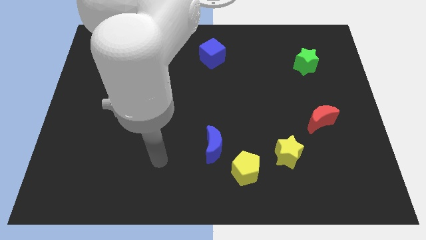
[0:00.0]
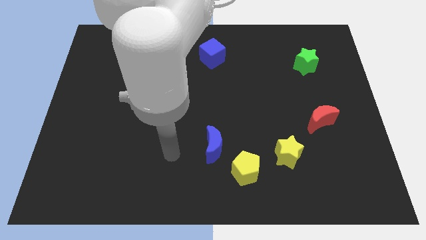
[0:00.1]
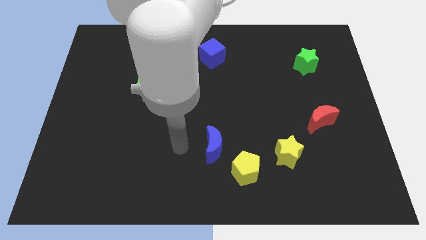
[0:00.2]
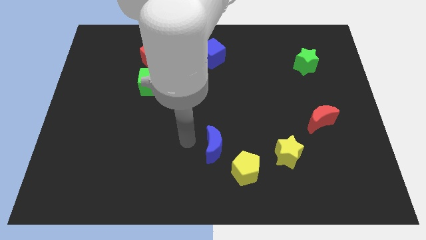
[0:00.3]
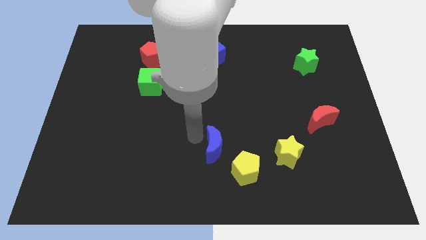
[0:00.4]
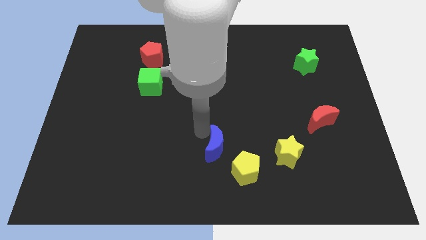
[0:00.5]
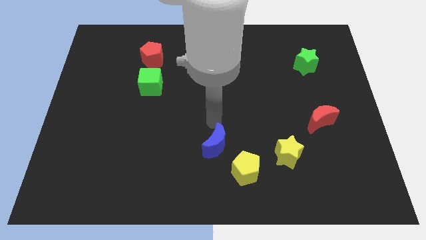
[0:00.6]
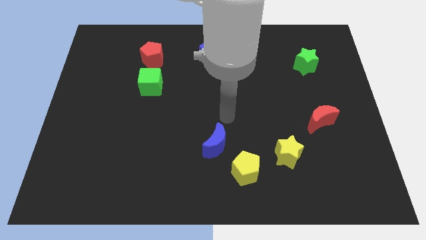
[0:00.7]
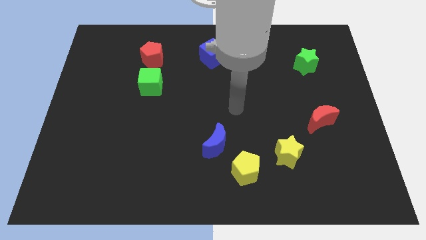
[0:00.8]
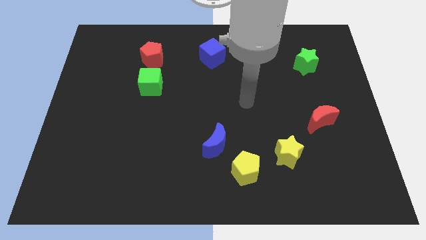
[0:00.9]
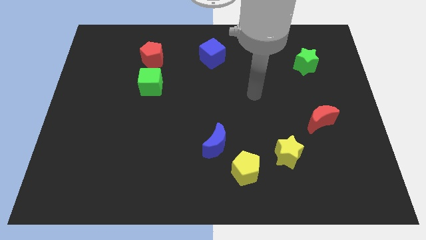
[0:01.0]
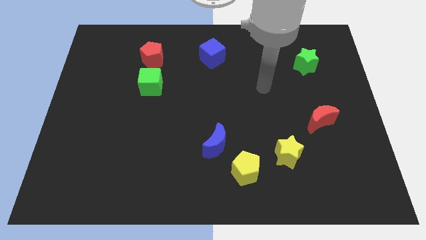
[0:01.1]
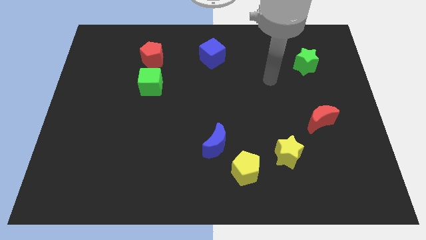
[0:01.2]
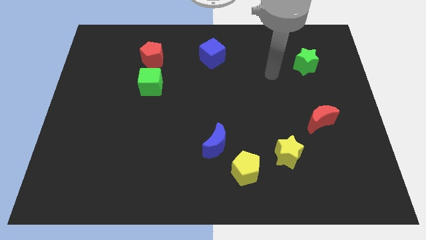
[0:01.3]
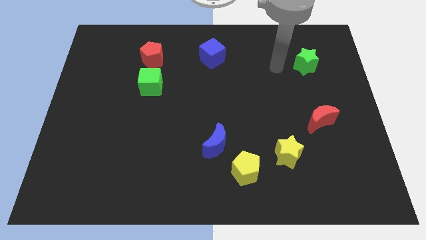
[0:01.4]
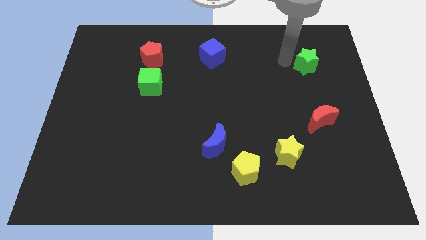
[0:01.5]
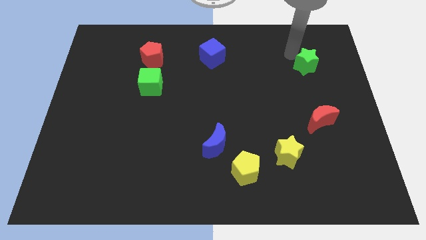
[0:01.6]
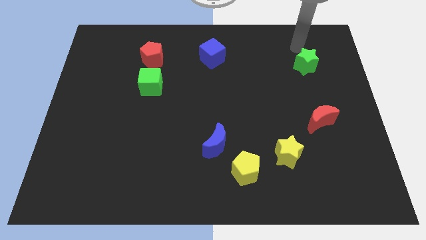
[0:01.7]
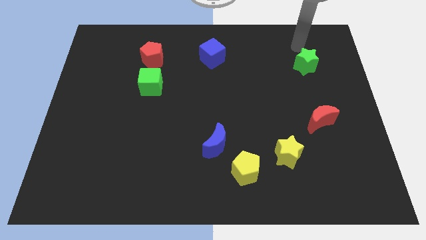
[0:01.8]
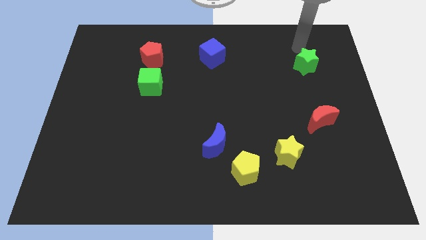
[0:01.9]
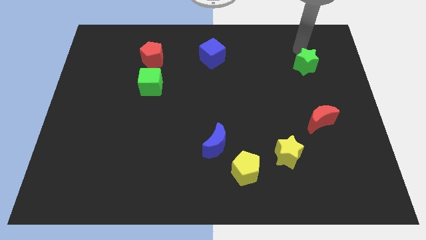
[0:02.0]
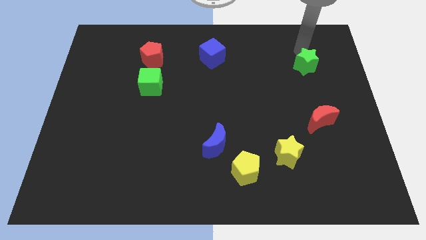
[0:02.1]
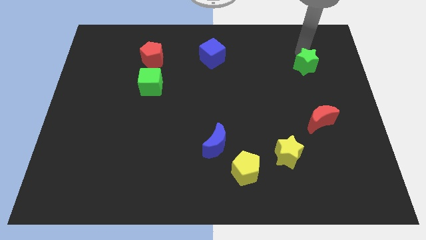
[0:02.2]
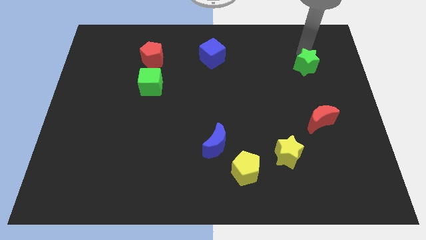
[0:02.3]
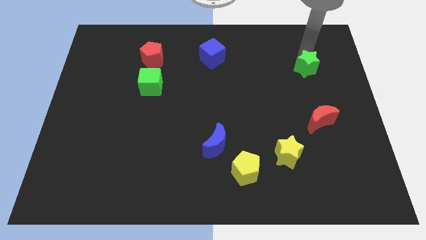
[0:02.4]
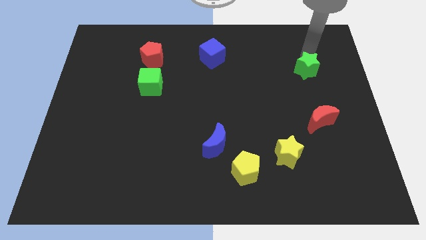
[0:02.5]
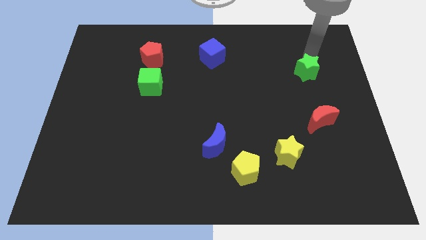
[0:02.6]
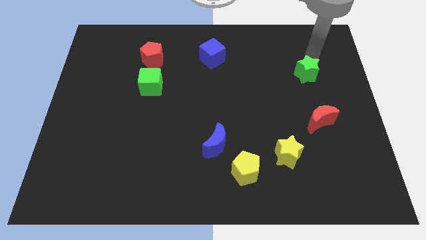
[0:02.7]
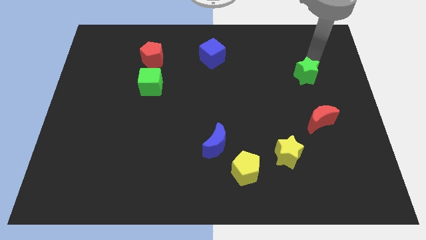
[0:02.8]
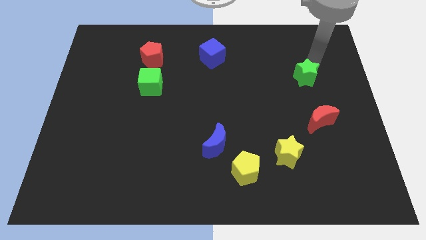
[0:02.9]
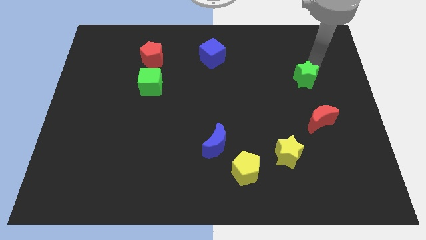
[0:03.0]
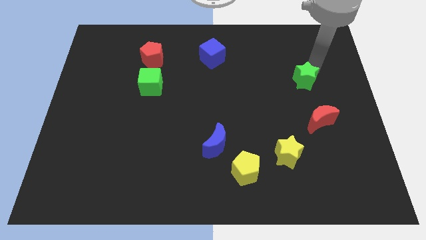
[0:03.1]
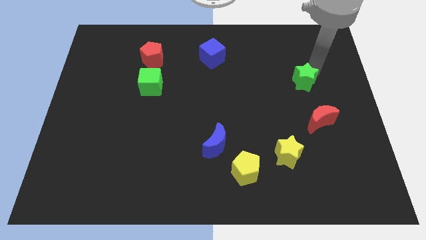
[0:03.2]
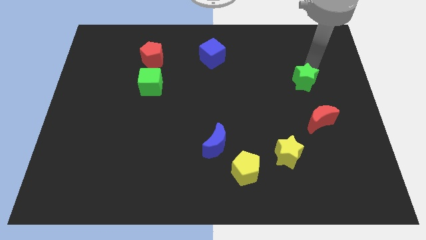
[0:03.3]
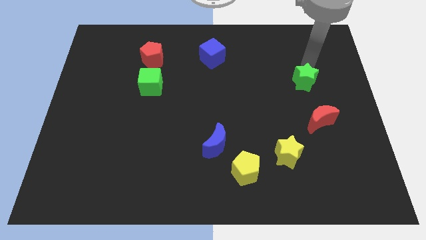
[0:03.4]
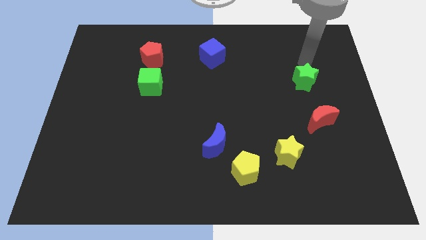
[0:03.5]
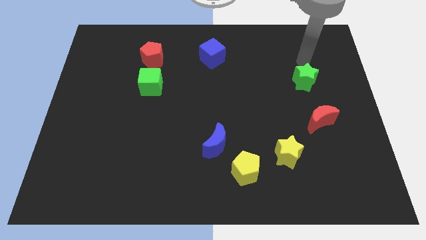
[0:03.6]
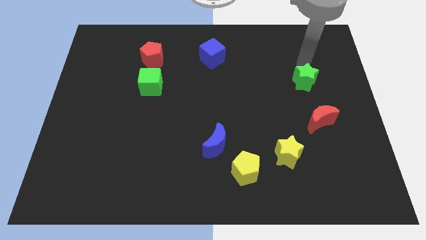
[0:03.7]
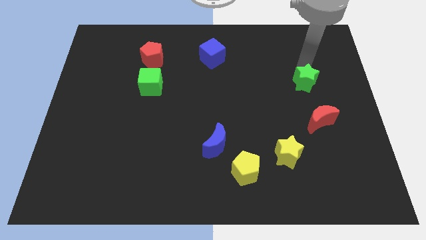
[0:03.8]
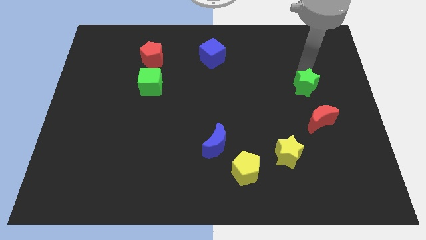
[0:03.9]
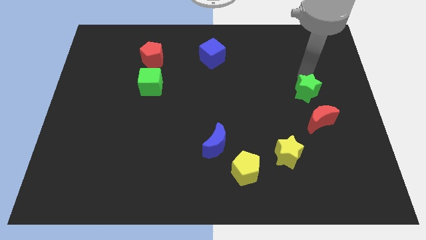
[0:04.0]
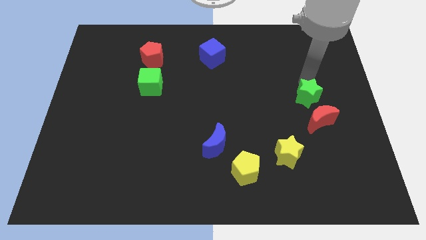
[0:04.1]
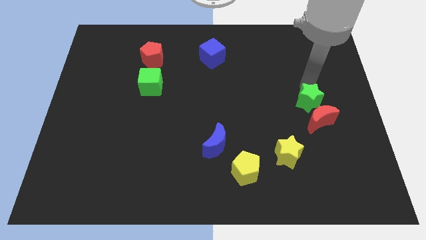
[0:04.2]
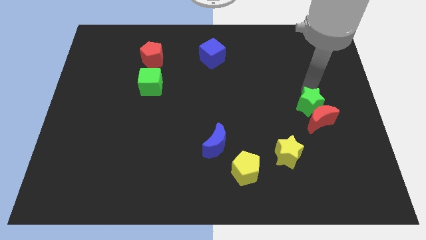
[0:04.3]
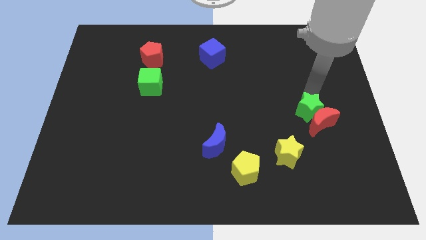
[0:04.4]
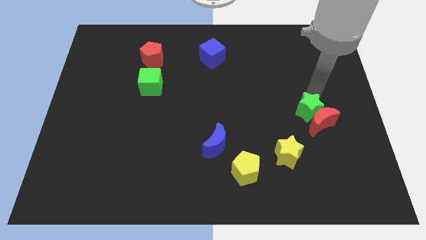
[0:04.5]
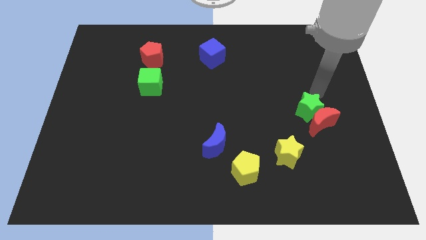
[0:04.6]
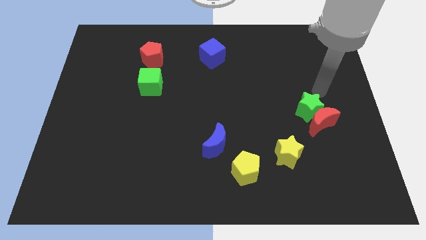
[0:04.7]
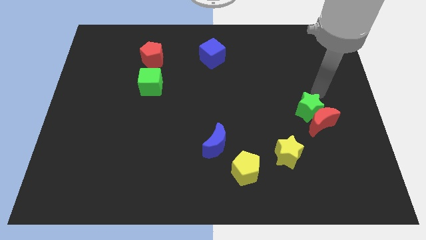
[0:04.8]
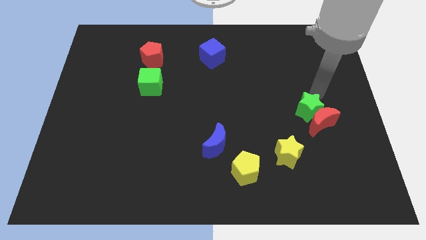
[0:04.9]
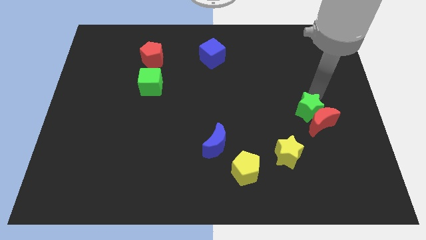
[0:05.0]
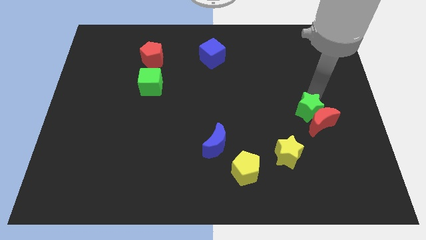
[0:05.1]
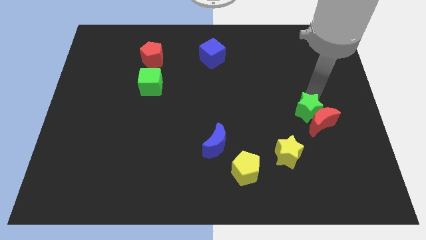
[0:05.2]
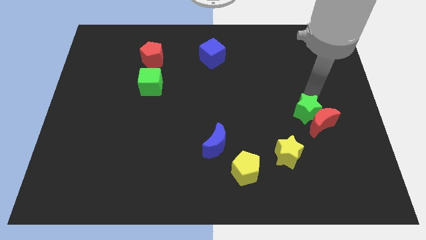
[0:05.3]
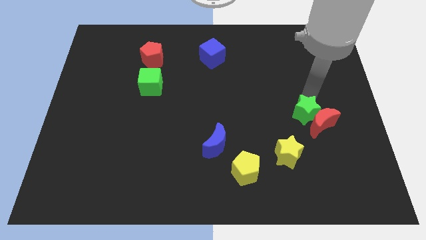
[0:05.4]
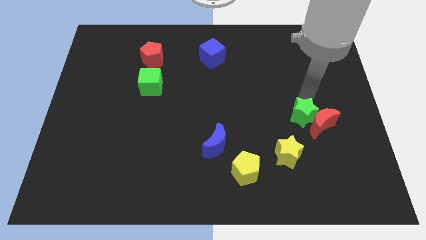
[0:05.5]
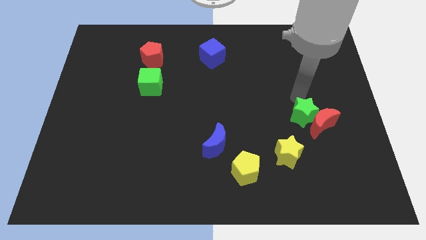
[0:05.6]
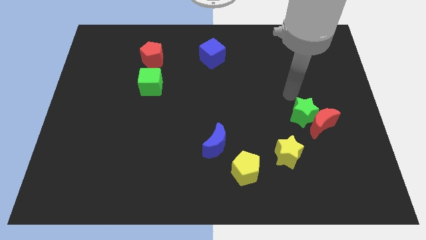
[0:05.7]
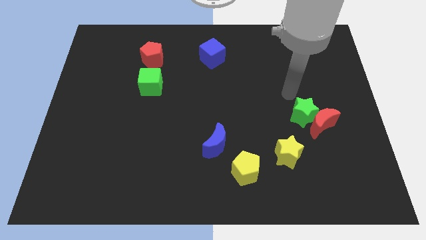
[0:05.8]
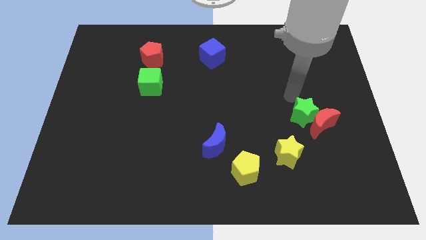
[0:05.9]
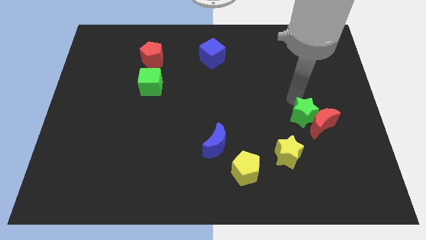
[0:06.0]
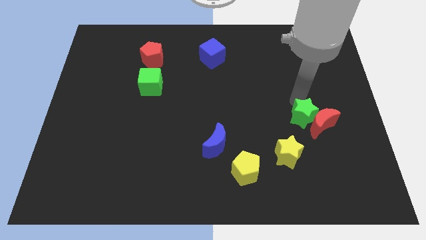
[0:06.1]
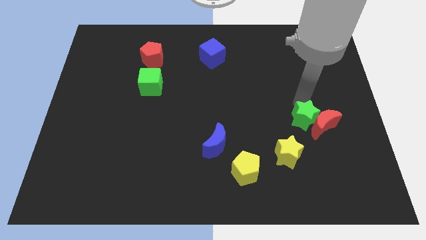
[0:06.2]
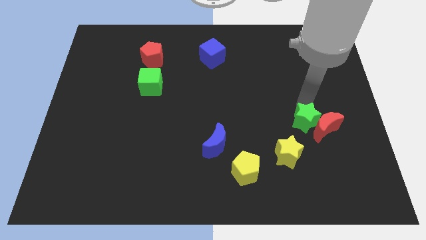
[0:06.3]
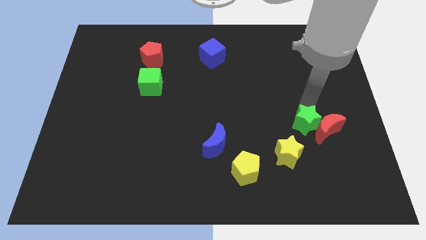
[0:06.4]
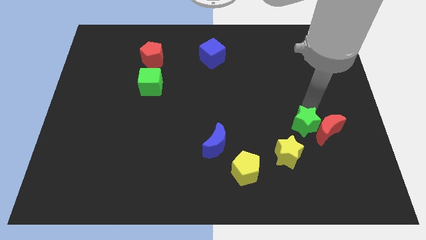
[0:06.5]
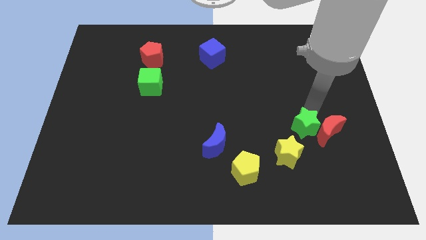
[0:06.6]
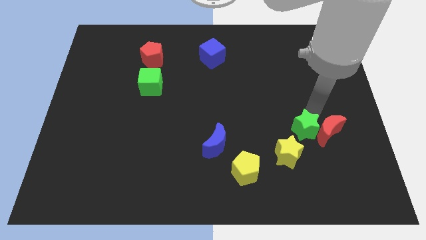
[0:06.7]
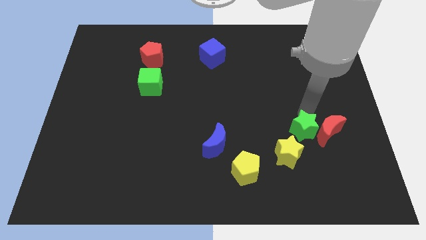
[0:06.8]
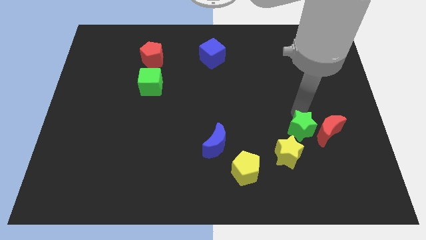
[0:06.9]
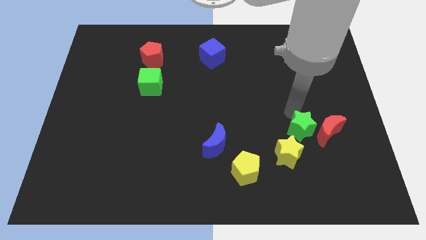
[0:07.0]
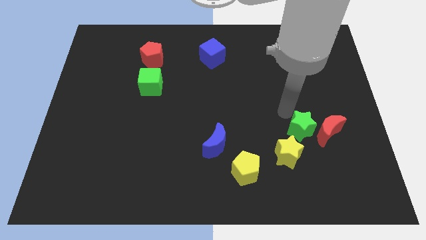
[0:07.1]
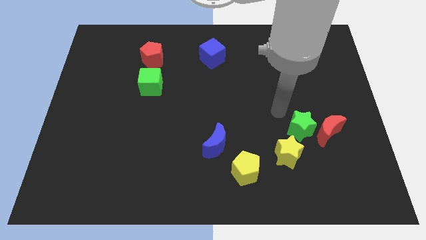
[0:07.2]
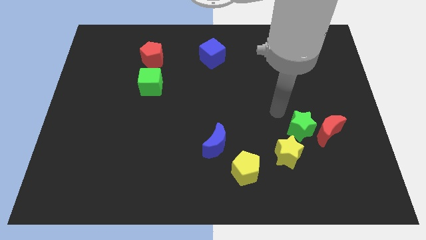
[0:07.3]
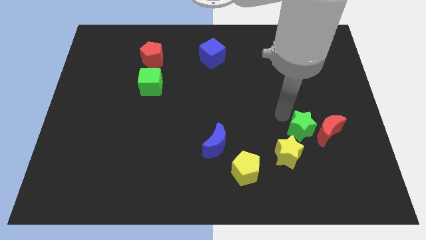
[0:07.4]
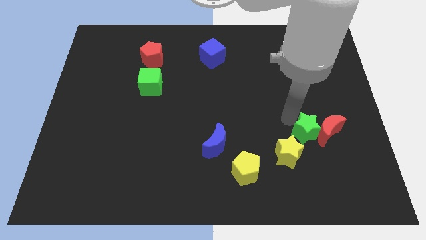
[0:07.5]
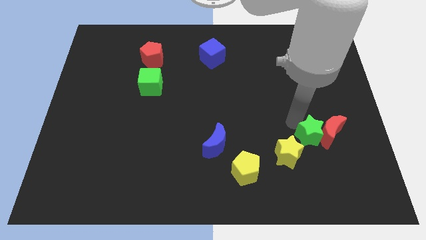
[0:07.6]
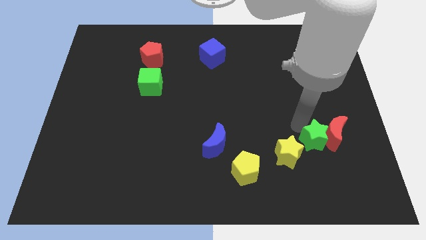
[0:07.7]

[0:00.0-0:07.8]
put the green star to the right of the yellow star
